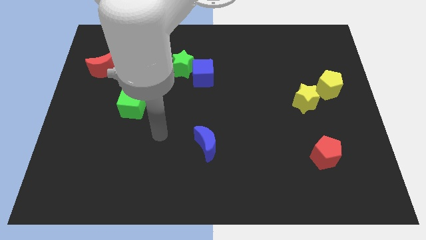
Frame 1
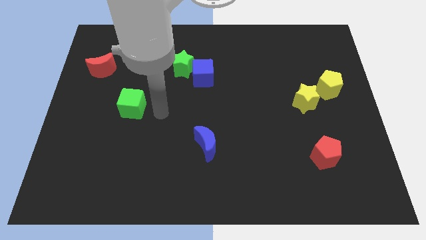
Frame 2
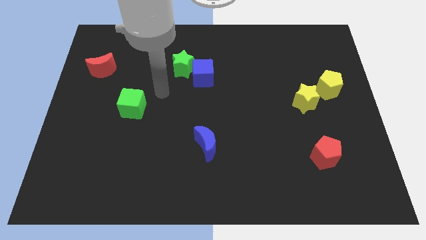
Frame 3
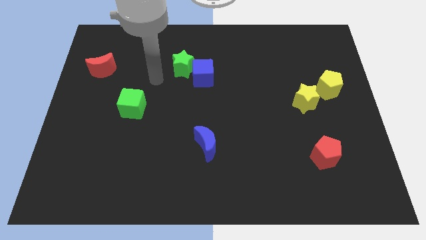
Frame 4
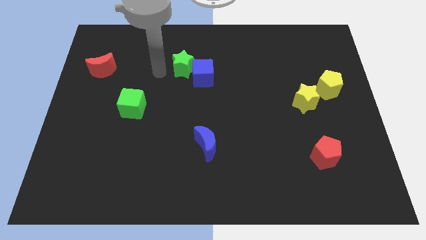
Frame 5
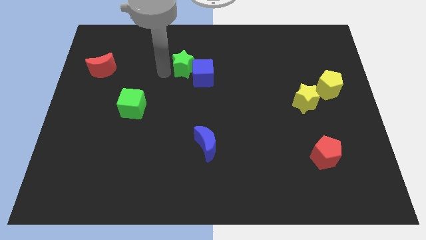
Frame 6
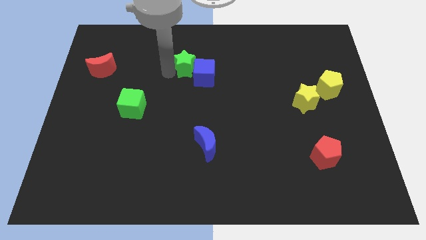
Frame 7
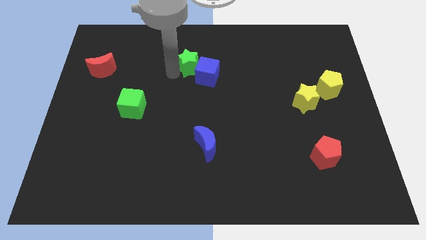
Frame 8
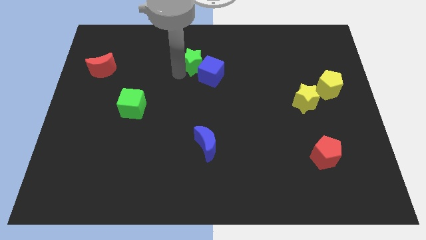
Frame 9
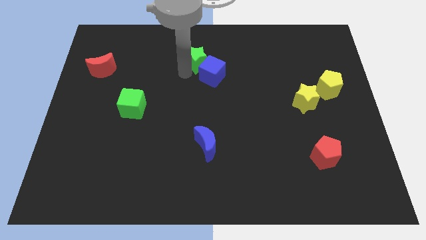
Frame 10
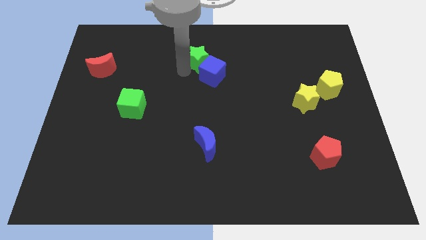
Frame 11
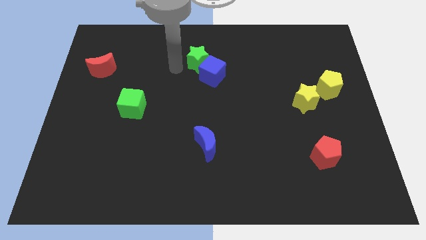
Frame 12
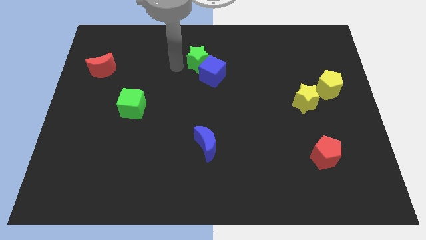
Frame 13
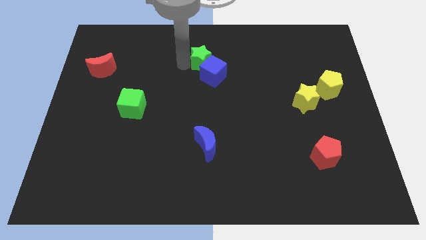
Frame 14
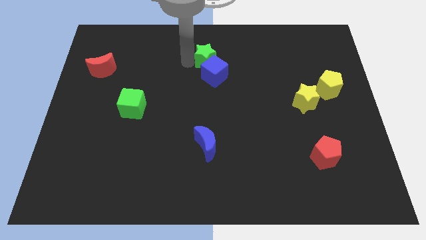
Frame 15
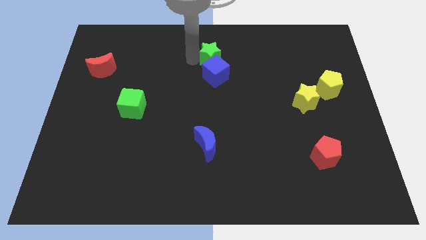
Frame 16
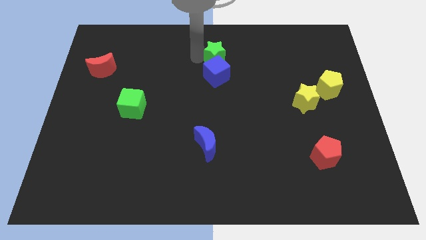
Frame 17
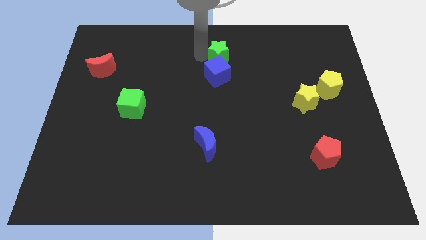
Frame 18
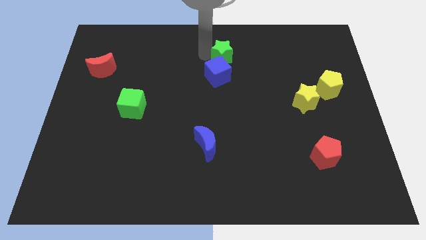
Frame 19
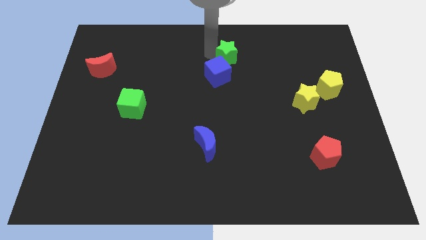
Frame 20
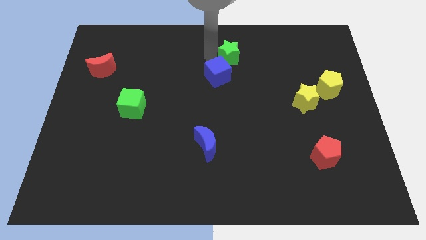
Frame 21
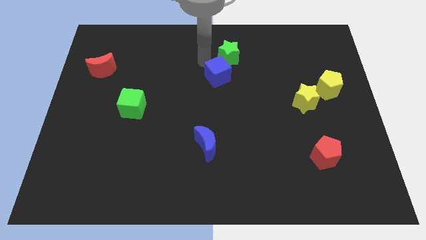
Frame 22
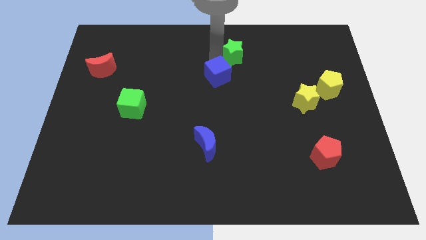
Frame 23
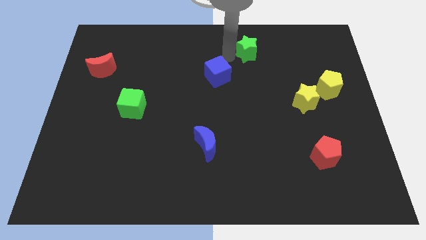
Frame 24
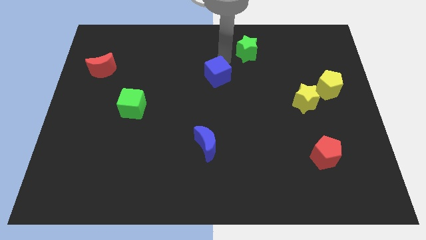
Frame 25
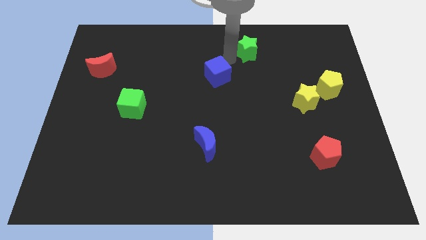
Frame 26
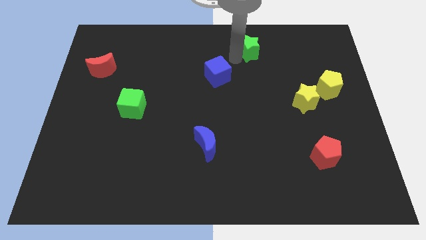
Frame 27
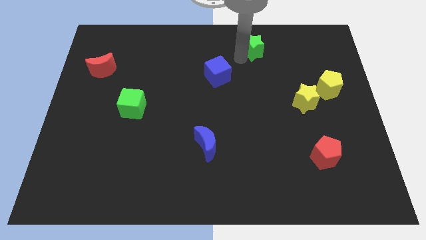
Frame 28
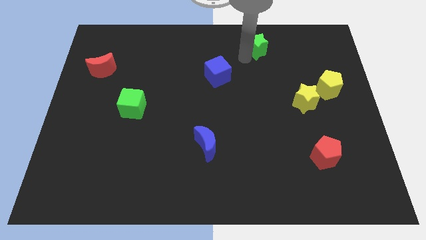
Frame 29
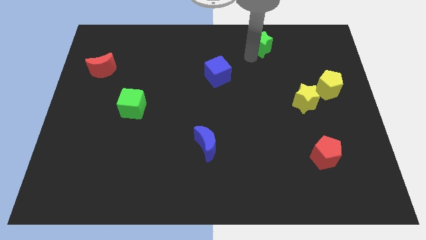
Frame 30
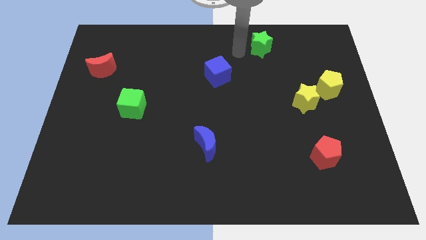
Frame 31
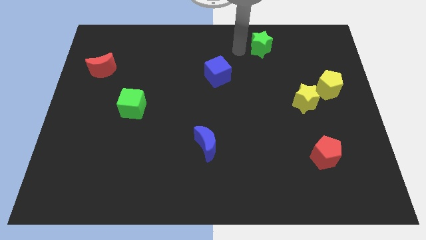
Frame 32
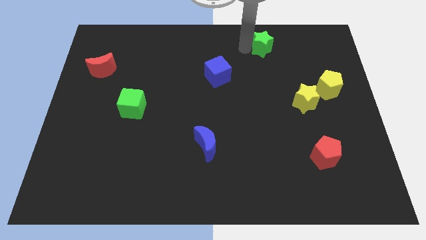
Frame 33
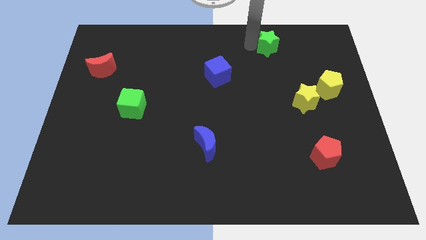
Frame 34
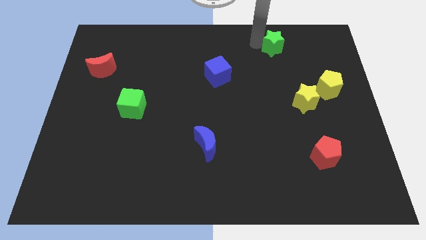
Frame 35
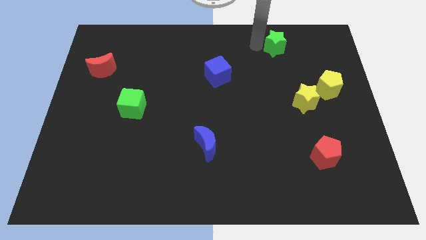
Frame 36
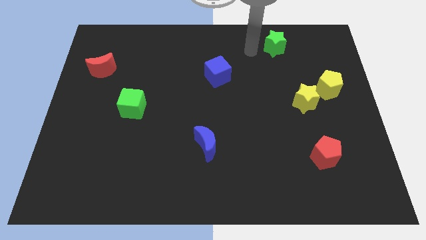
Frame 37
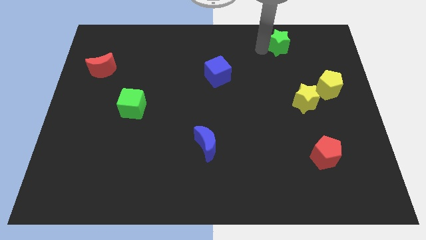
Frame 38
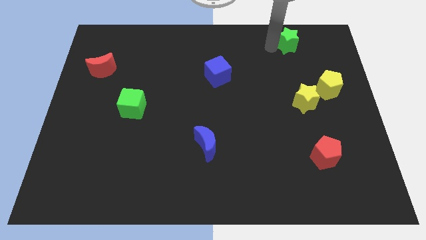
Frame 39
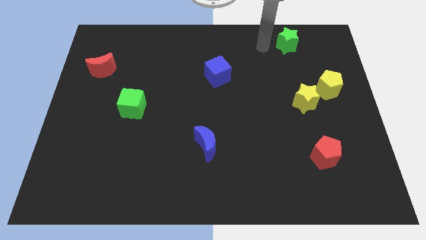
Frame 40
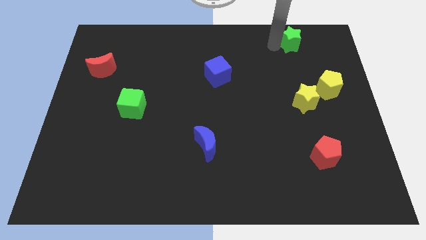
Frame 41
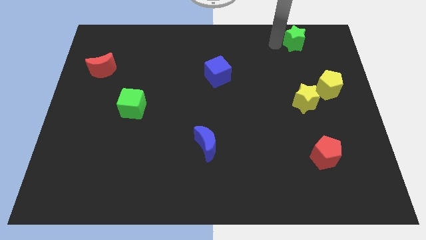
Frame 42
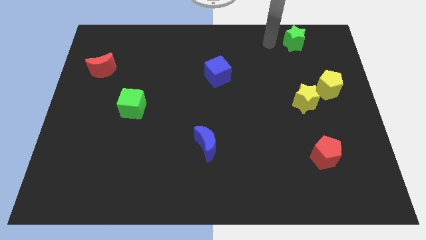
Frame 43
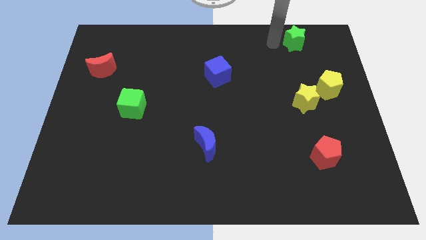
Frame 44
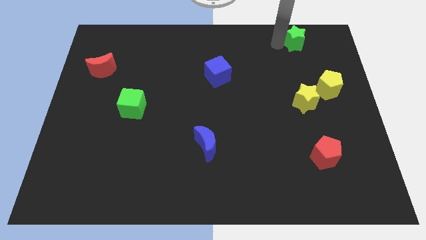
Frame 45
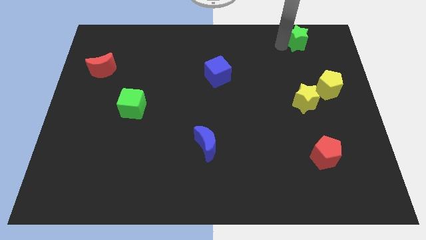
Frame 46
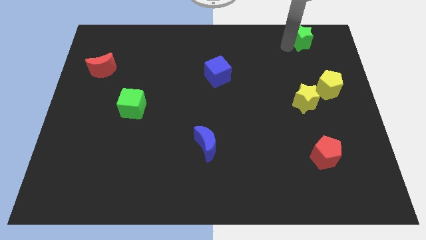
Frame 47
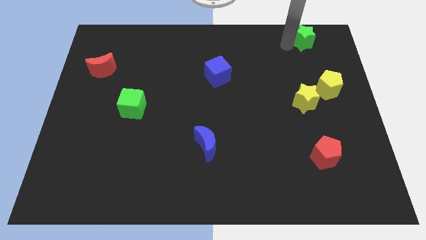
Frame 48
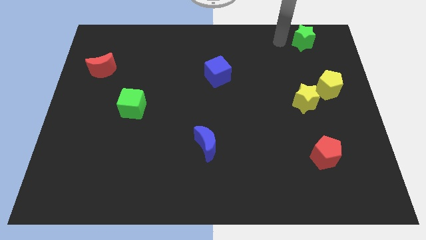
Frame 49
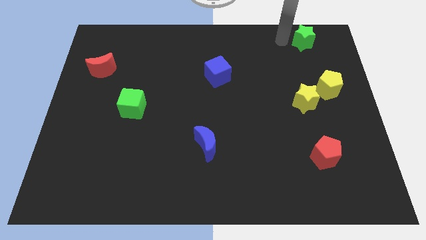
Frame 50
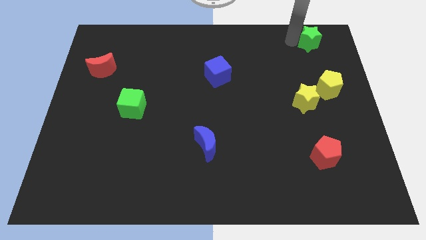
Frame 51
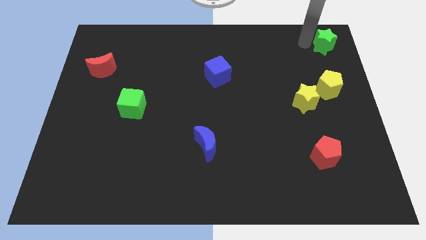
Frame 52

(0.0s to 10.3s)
slide the green star to the top right corner
